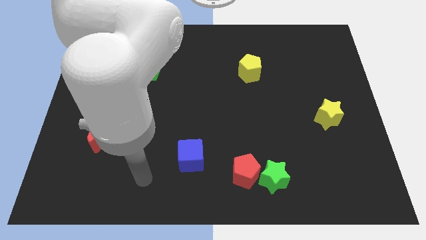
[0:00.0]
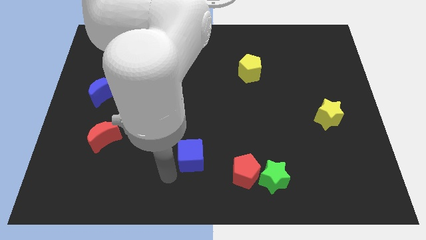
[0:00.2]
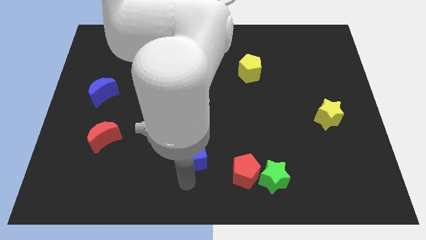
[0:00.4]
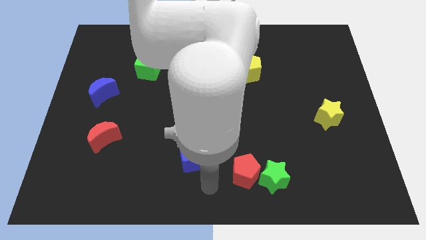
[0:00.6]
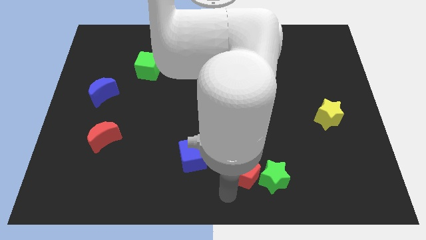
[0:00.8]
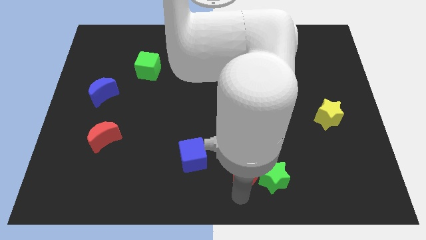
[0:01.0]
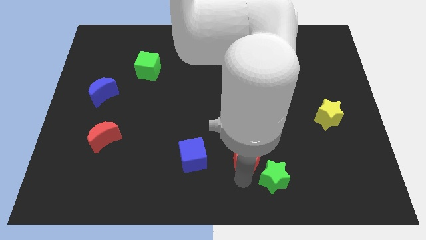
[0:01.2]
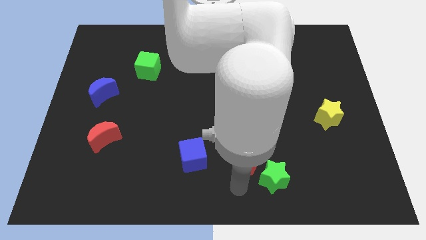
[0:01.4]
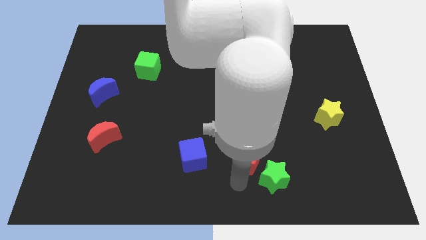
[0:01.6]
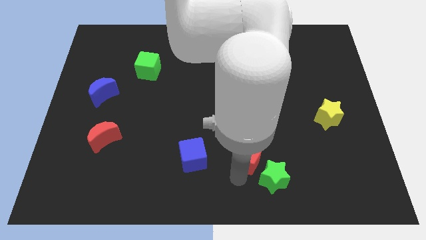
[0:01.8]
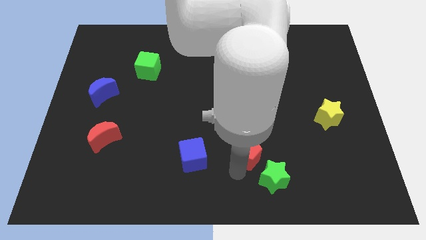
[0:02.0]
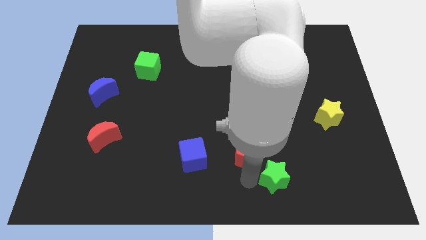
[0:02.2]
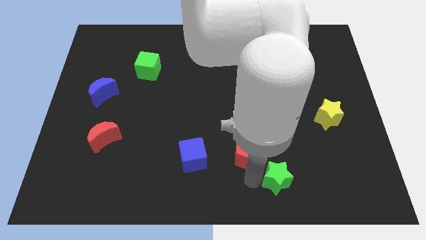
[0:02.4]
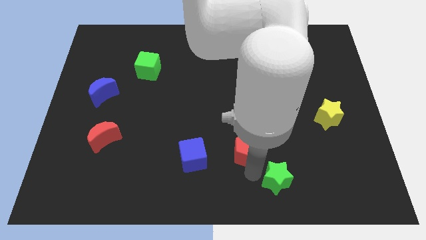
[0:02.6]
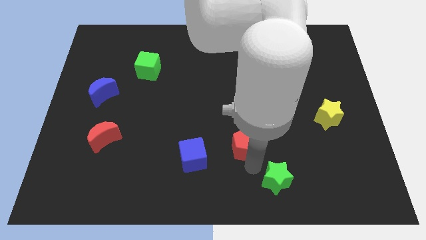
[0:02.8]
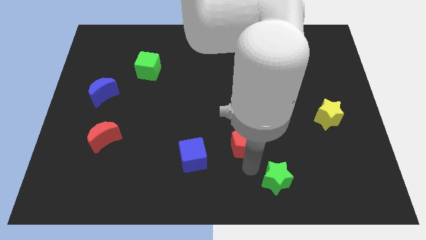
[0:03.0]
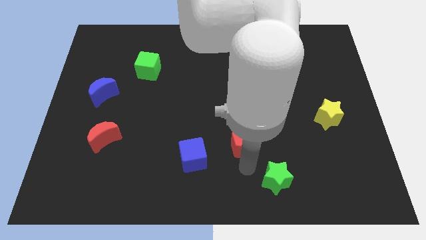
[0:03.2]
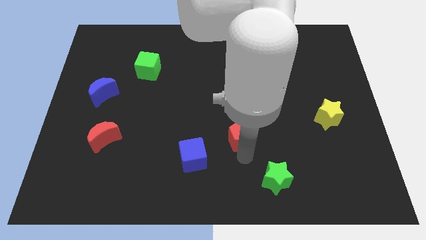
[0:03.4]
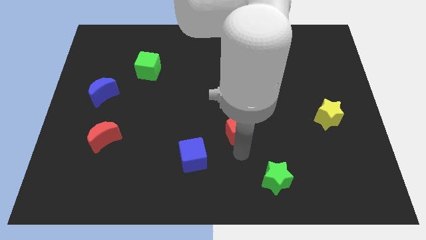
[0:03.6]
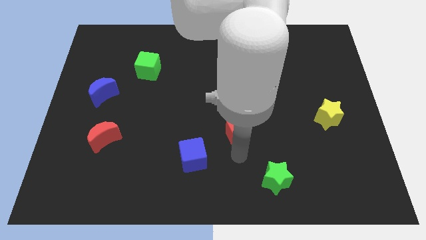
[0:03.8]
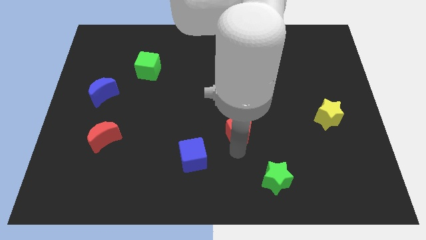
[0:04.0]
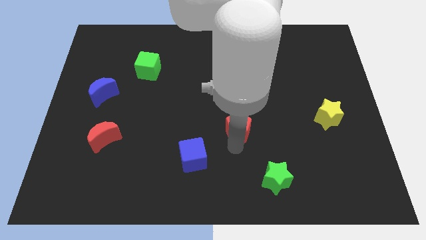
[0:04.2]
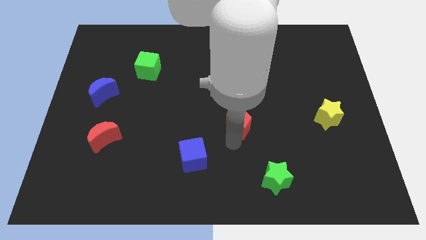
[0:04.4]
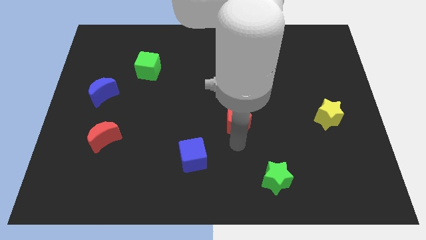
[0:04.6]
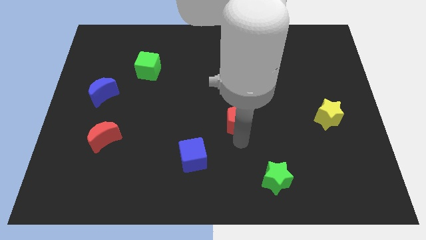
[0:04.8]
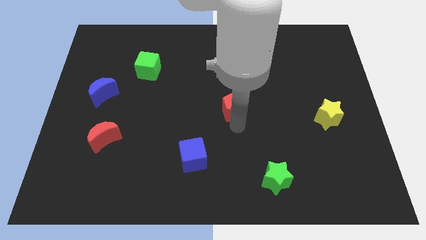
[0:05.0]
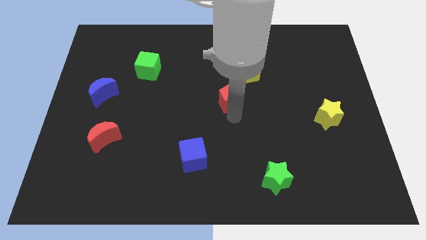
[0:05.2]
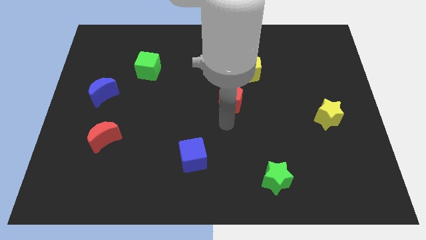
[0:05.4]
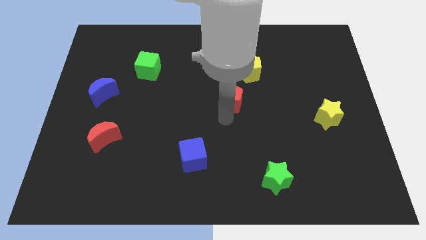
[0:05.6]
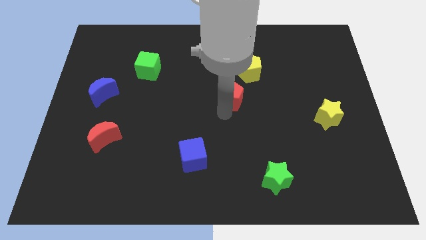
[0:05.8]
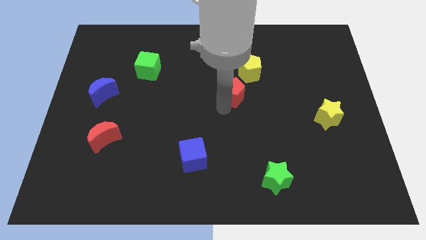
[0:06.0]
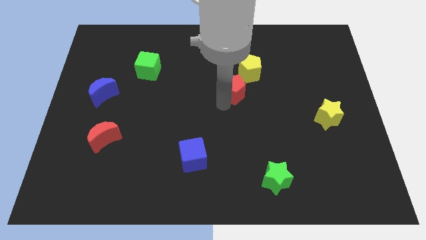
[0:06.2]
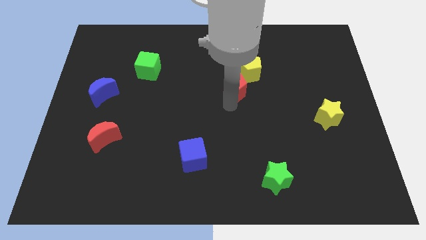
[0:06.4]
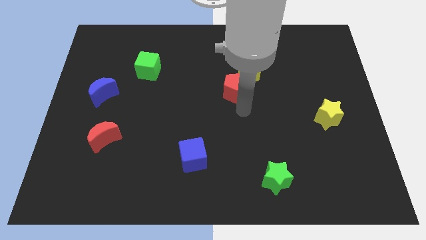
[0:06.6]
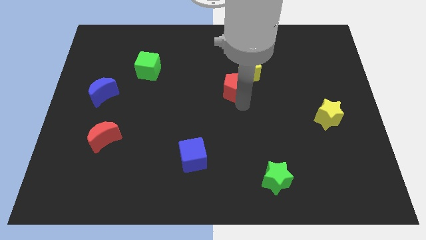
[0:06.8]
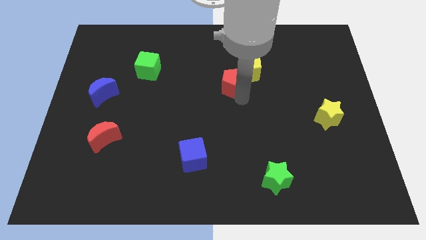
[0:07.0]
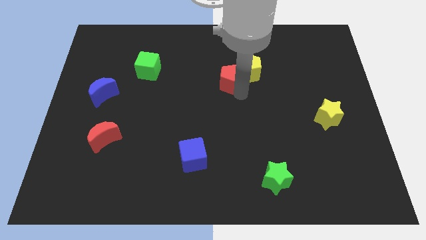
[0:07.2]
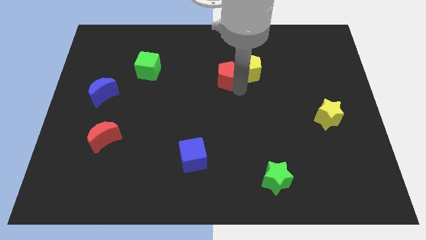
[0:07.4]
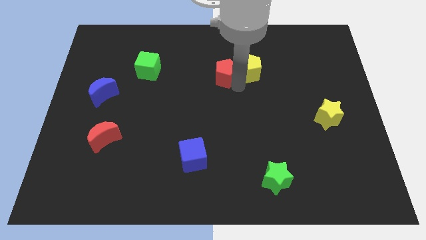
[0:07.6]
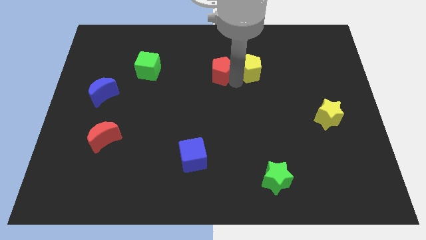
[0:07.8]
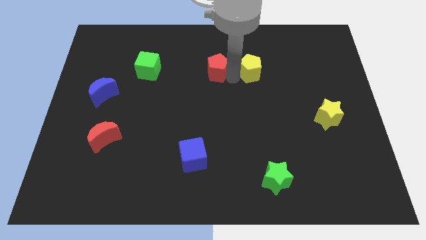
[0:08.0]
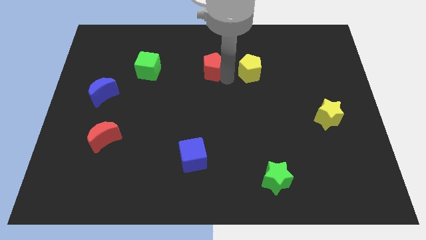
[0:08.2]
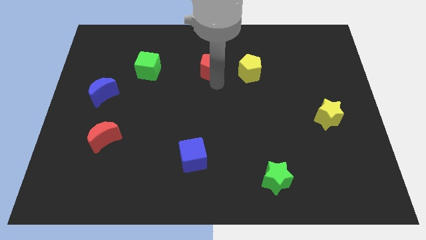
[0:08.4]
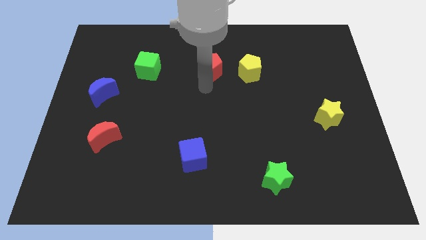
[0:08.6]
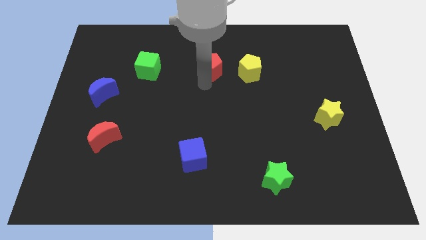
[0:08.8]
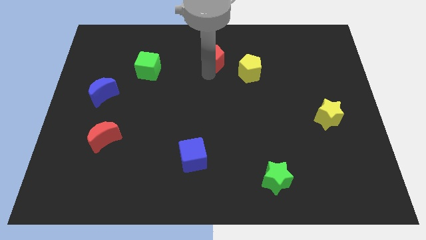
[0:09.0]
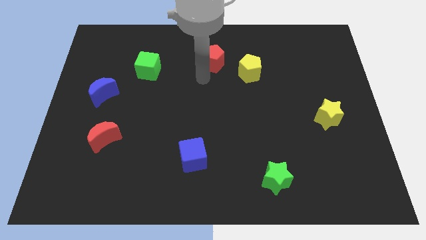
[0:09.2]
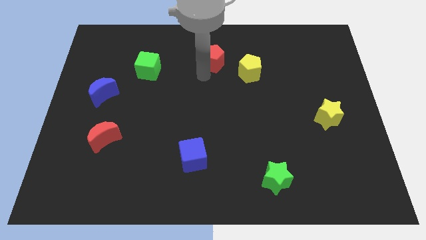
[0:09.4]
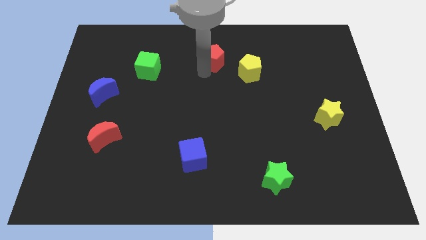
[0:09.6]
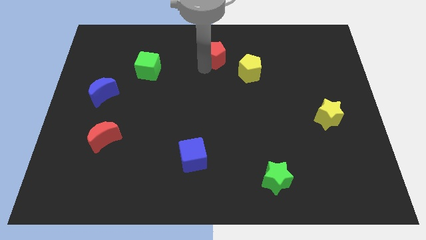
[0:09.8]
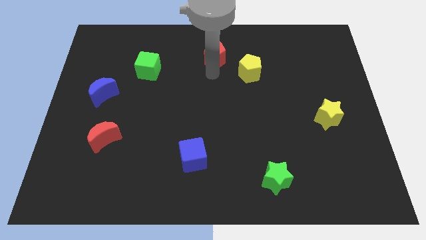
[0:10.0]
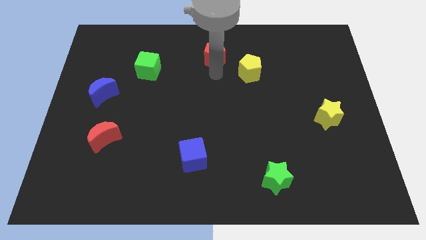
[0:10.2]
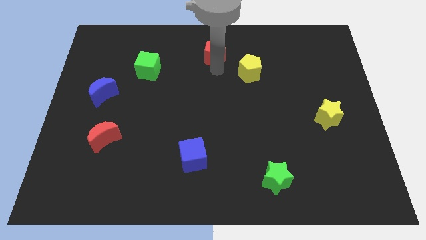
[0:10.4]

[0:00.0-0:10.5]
move the red pentagon to the towards your base

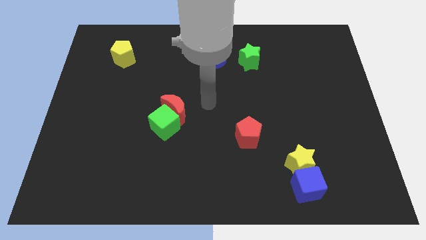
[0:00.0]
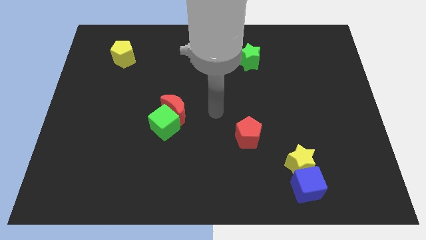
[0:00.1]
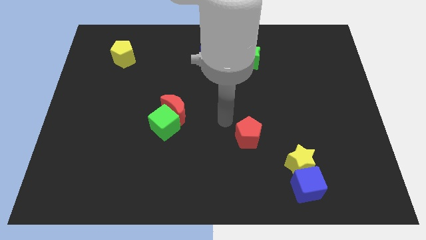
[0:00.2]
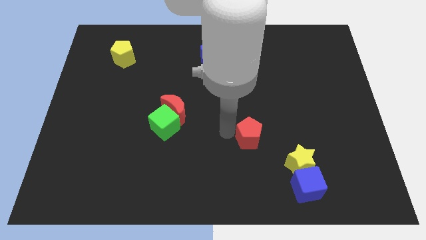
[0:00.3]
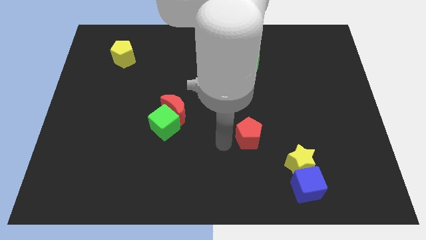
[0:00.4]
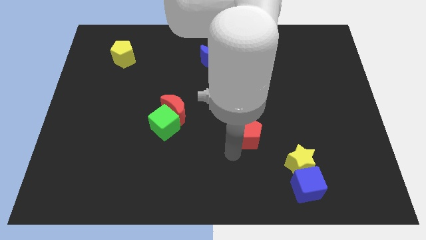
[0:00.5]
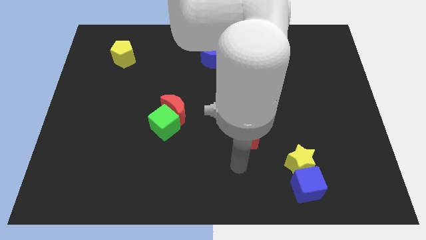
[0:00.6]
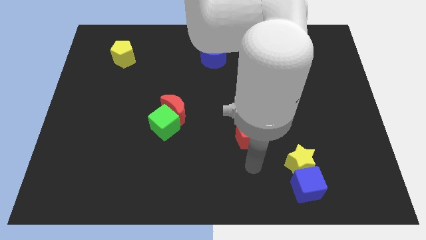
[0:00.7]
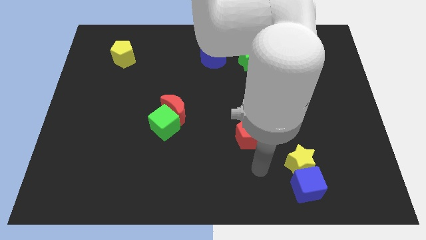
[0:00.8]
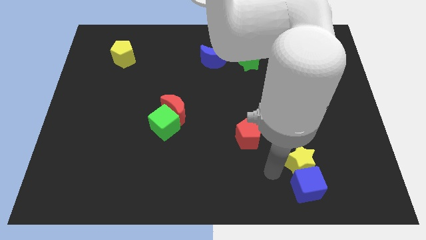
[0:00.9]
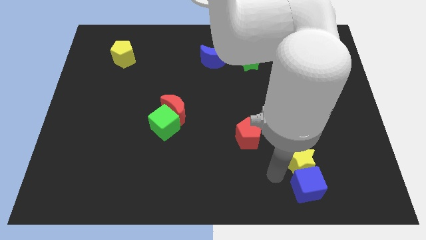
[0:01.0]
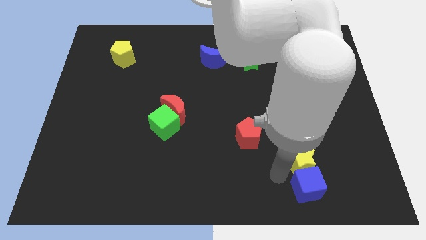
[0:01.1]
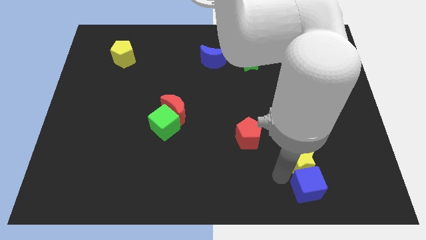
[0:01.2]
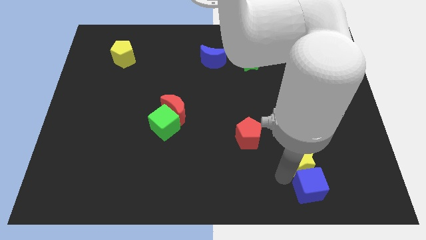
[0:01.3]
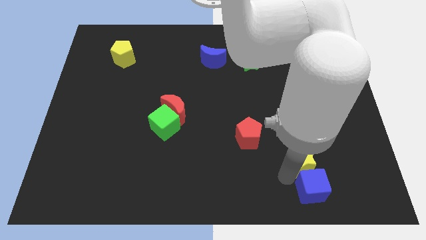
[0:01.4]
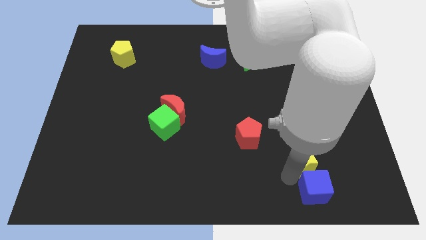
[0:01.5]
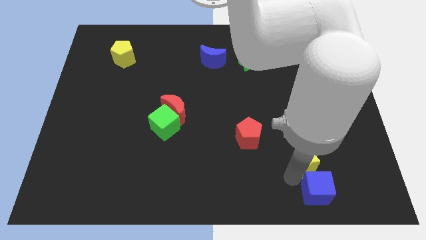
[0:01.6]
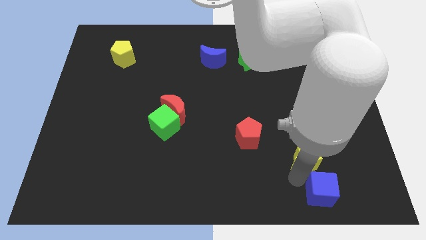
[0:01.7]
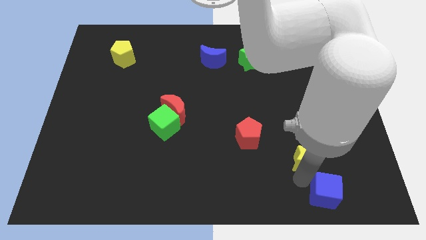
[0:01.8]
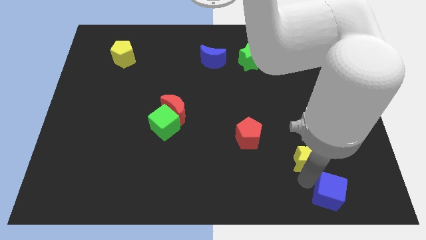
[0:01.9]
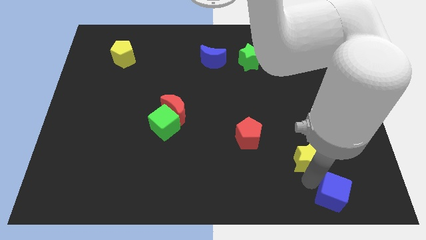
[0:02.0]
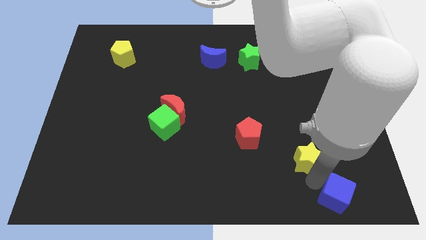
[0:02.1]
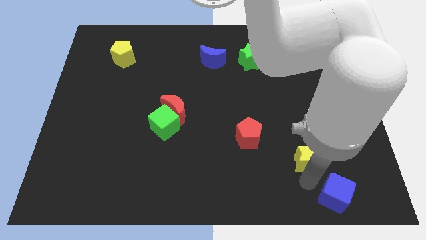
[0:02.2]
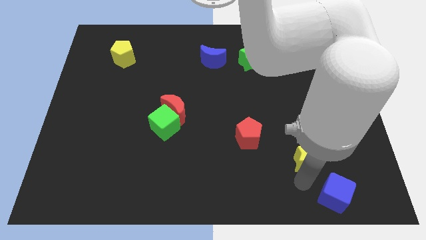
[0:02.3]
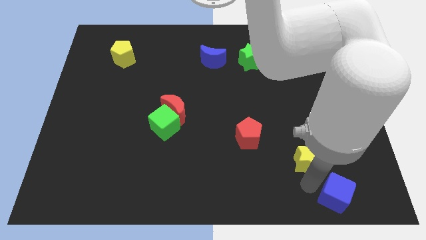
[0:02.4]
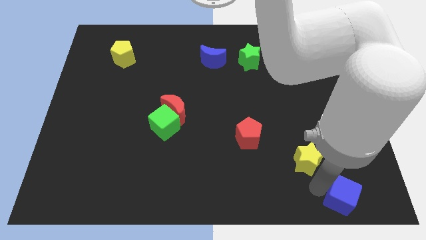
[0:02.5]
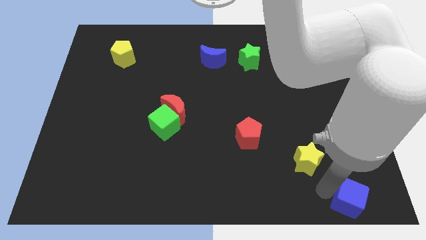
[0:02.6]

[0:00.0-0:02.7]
slide the blue cube to the bottom right
